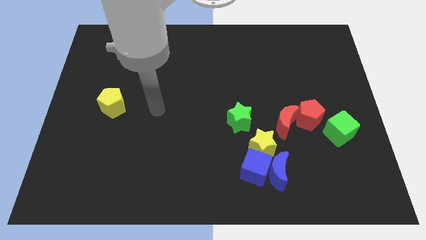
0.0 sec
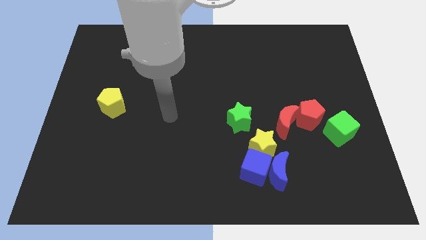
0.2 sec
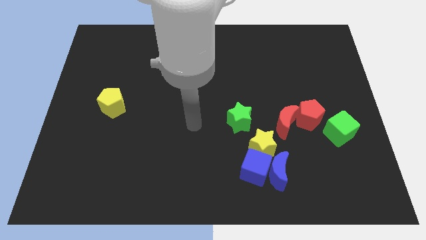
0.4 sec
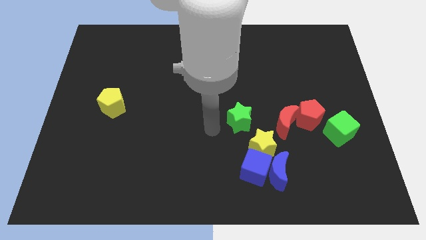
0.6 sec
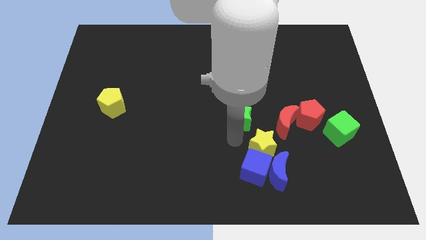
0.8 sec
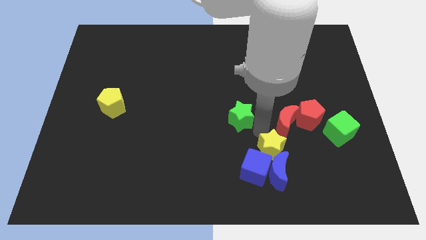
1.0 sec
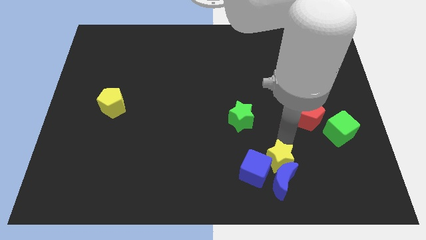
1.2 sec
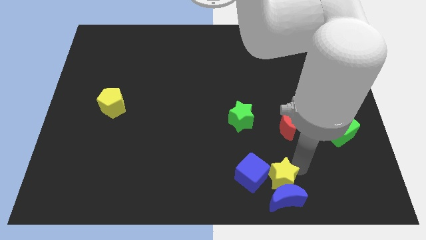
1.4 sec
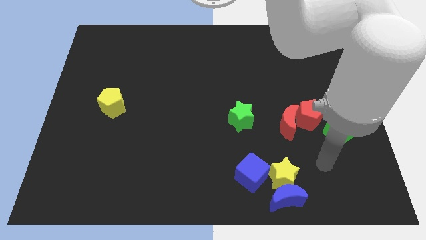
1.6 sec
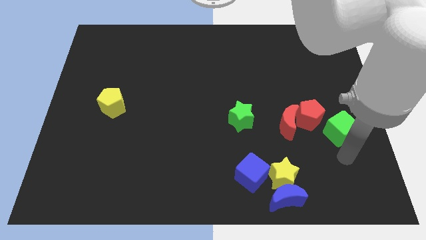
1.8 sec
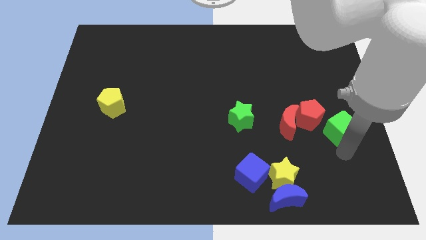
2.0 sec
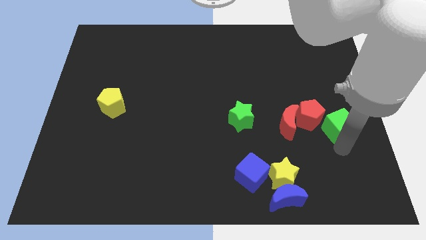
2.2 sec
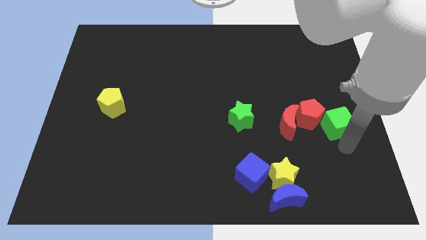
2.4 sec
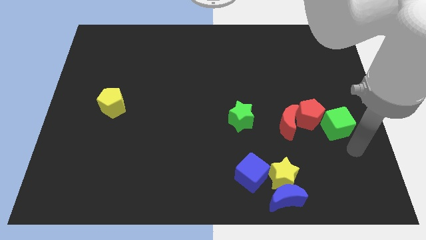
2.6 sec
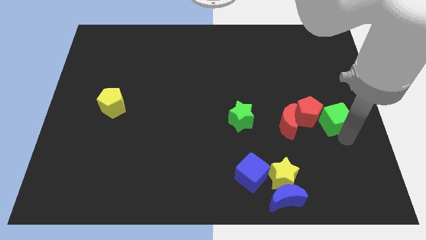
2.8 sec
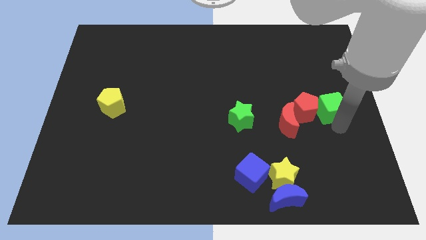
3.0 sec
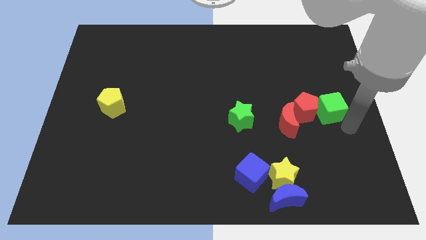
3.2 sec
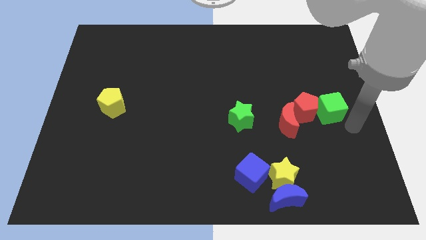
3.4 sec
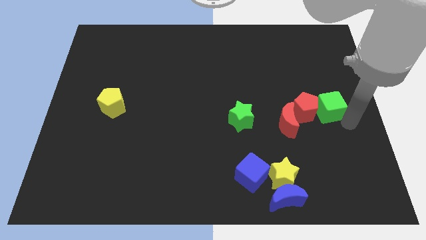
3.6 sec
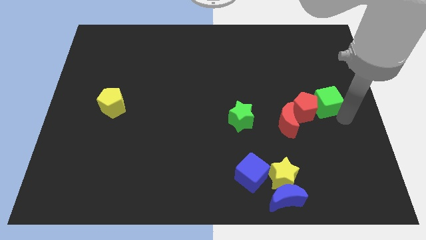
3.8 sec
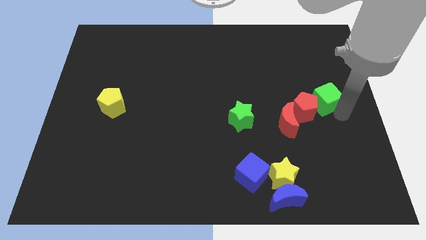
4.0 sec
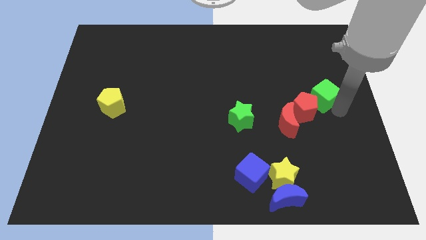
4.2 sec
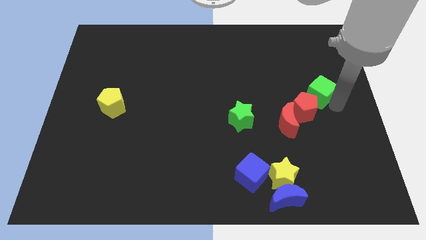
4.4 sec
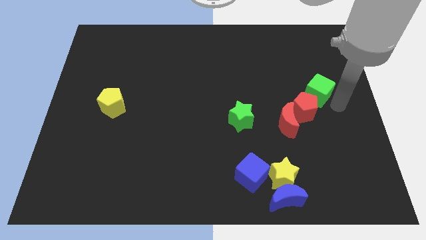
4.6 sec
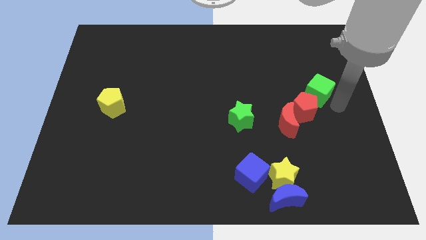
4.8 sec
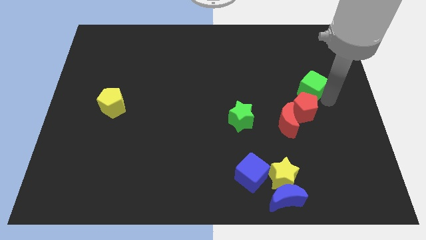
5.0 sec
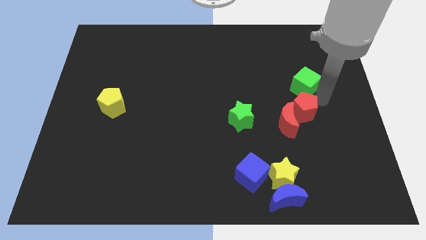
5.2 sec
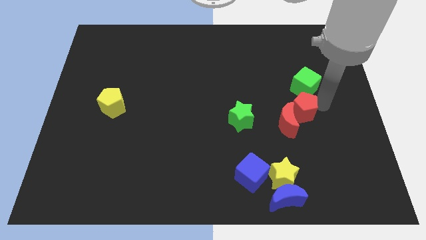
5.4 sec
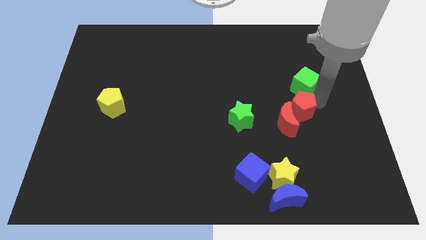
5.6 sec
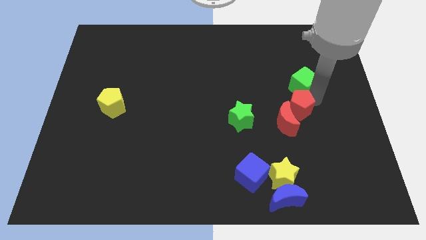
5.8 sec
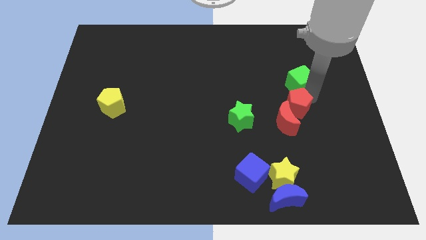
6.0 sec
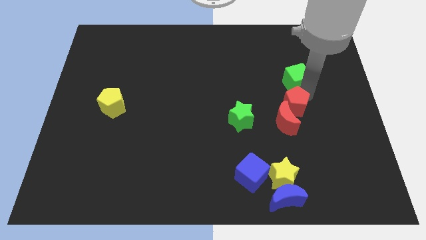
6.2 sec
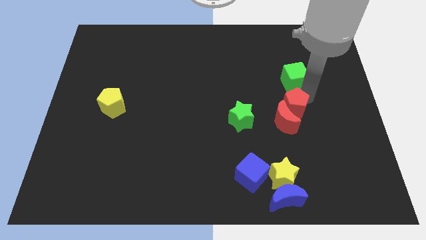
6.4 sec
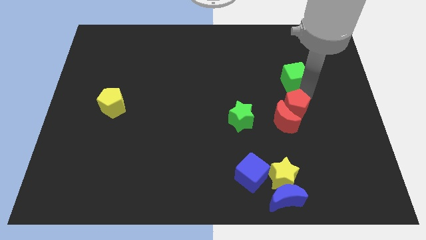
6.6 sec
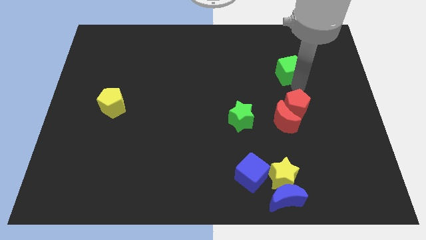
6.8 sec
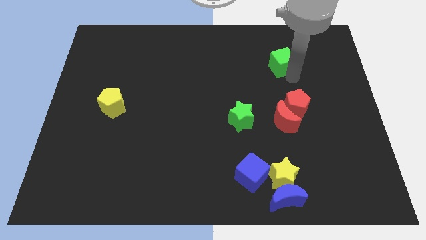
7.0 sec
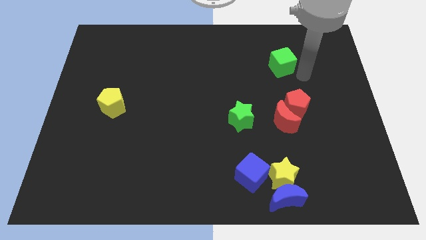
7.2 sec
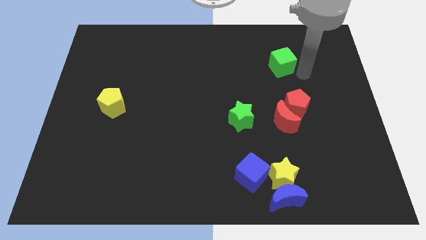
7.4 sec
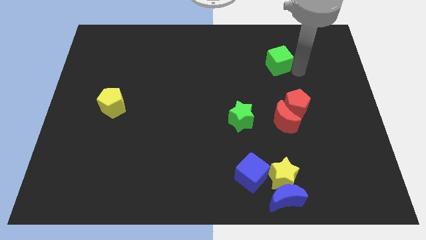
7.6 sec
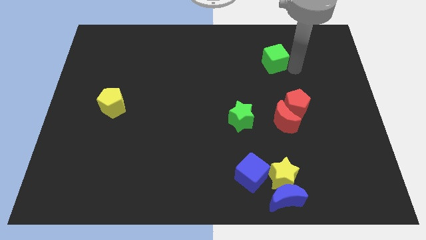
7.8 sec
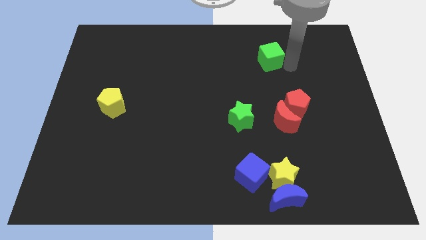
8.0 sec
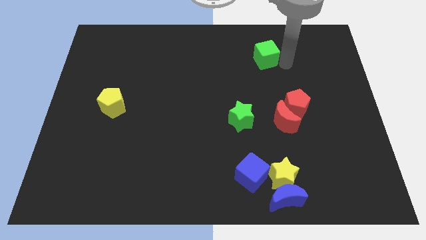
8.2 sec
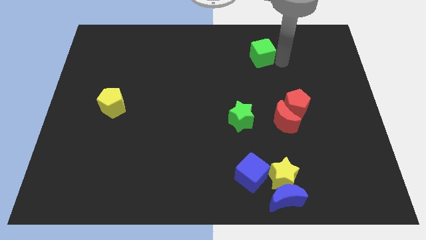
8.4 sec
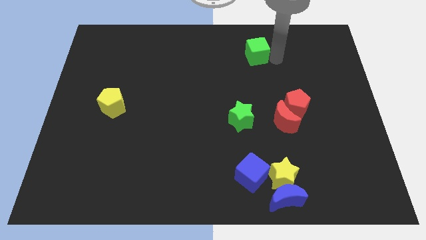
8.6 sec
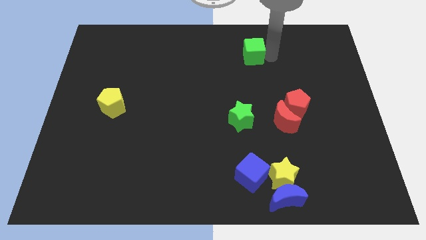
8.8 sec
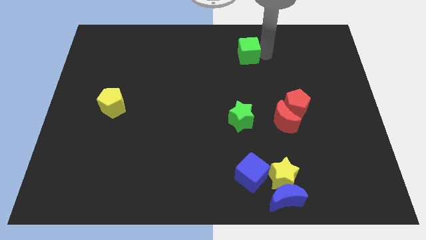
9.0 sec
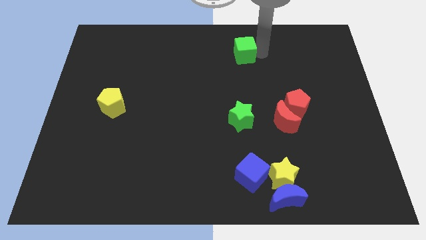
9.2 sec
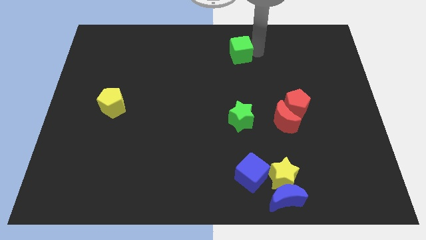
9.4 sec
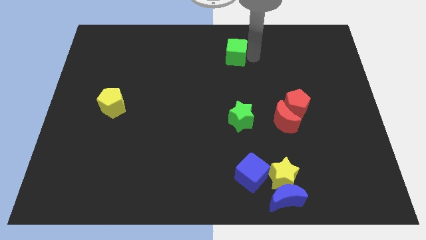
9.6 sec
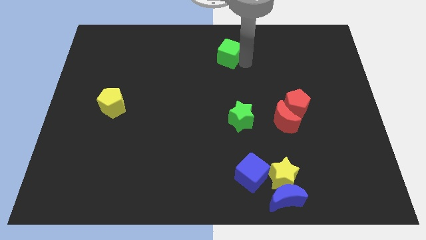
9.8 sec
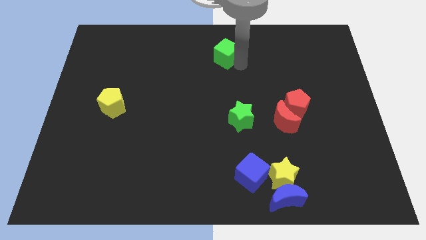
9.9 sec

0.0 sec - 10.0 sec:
move the green cube to the top

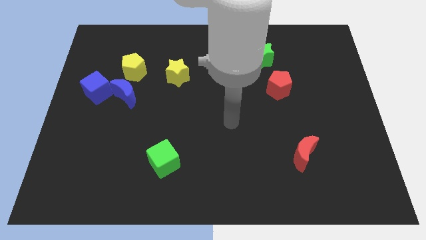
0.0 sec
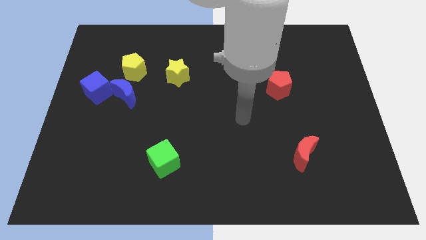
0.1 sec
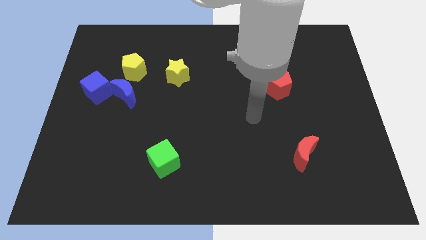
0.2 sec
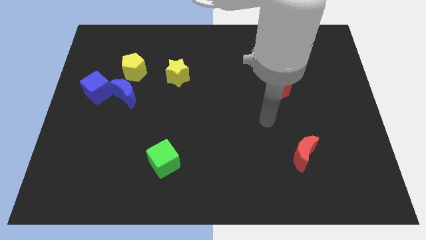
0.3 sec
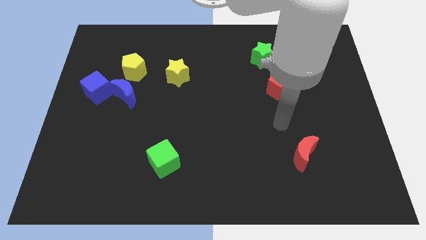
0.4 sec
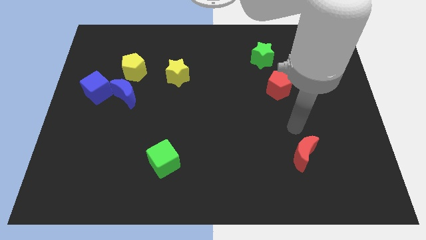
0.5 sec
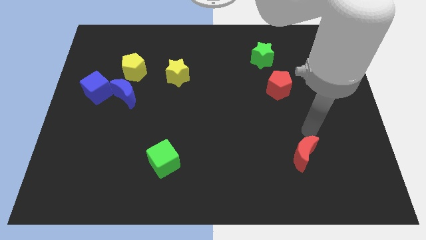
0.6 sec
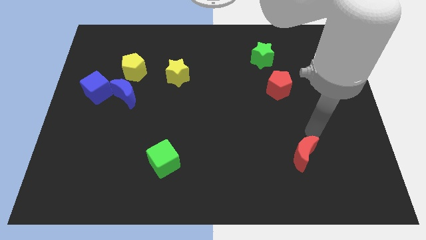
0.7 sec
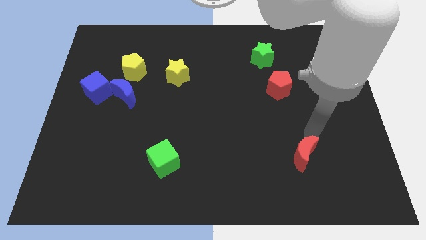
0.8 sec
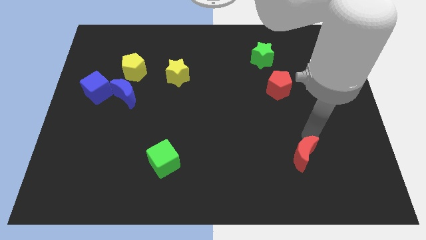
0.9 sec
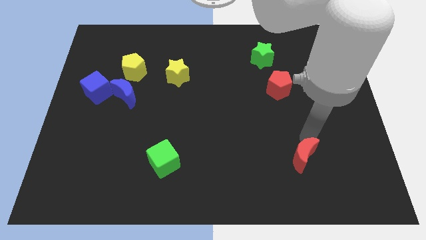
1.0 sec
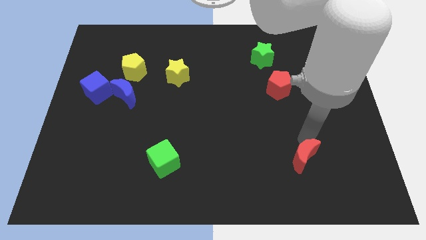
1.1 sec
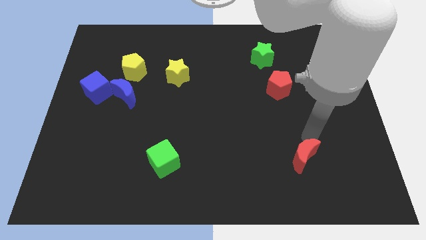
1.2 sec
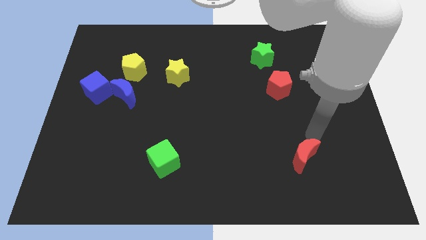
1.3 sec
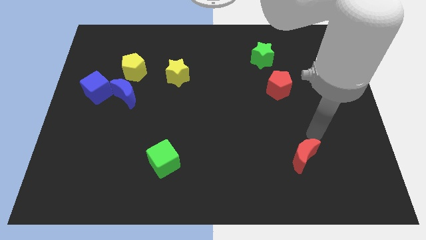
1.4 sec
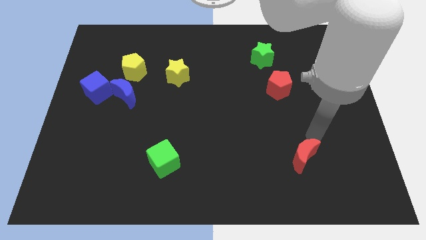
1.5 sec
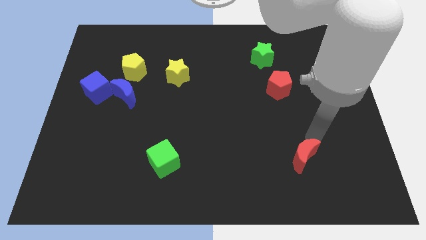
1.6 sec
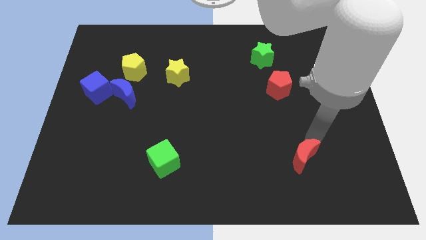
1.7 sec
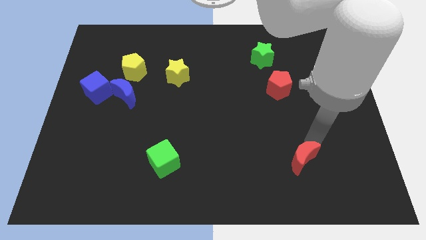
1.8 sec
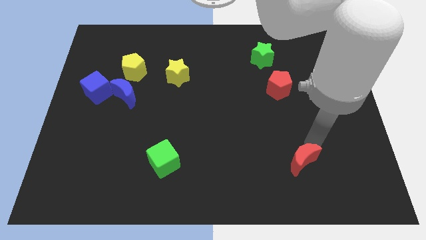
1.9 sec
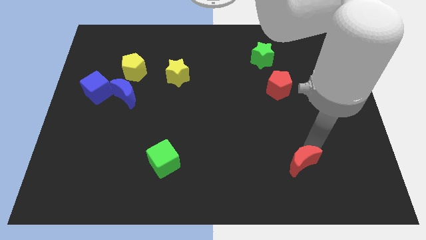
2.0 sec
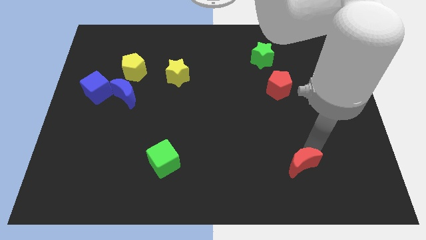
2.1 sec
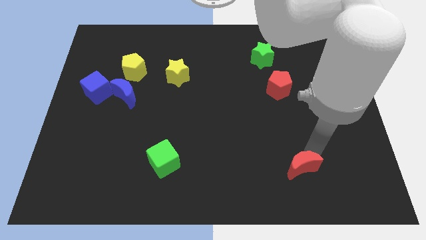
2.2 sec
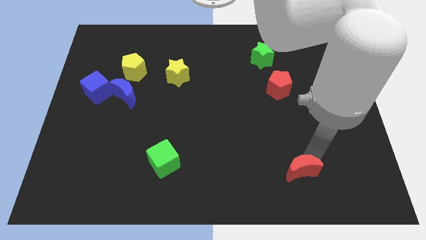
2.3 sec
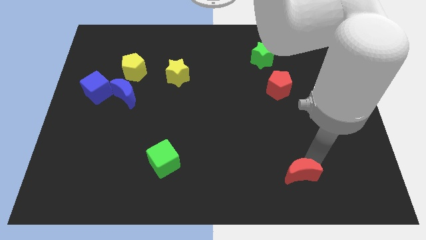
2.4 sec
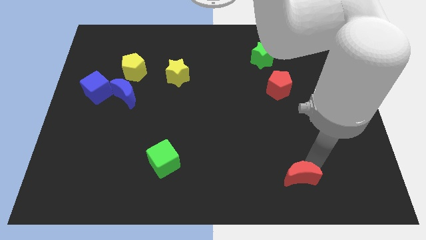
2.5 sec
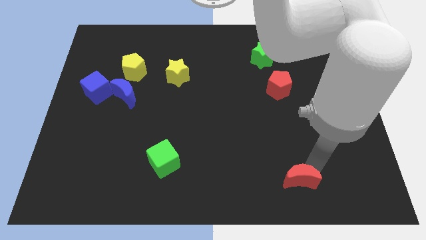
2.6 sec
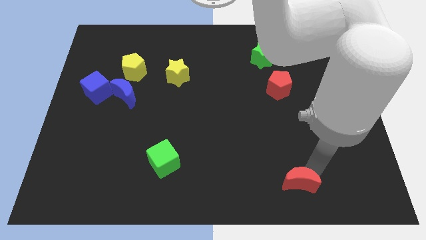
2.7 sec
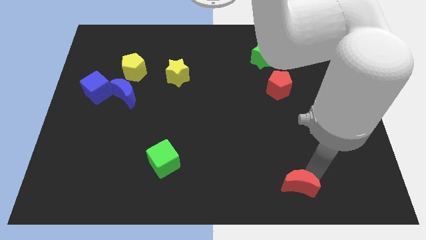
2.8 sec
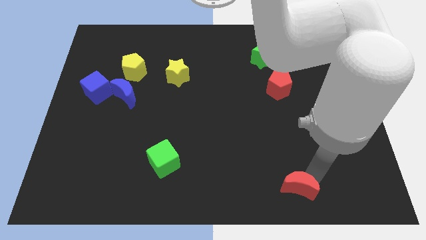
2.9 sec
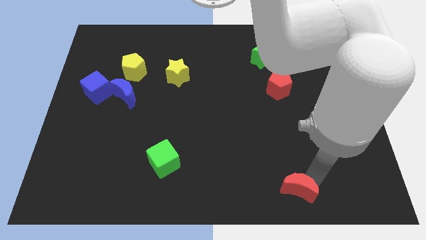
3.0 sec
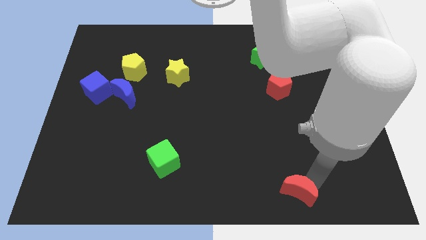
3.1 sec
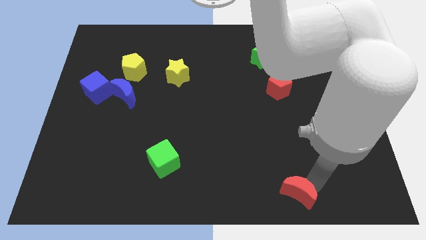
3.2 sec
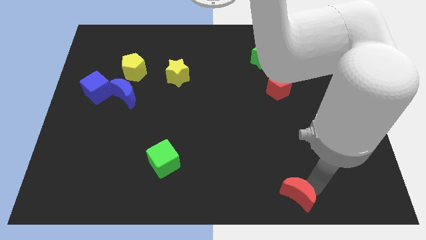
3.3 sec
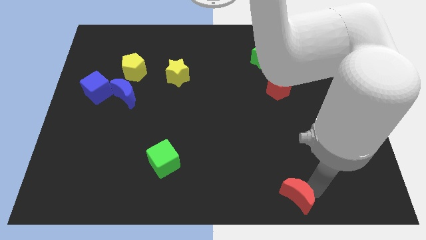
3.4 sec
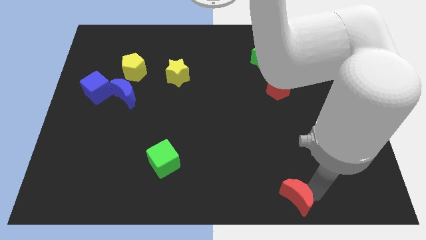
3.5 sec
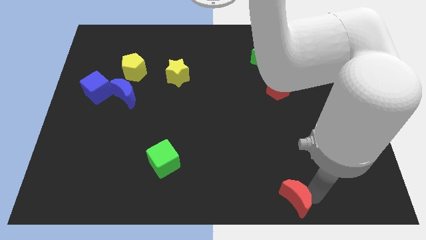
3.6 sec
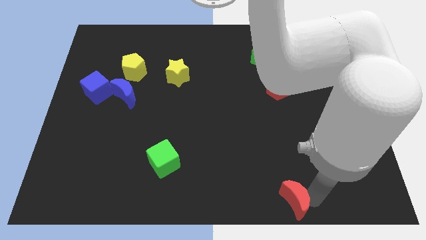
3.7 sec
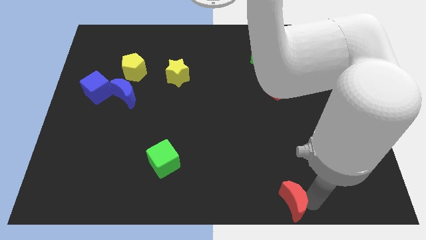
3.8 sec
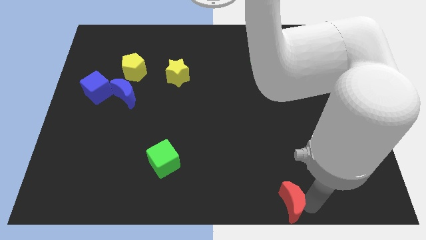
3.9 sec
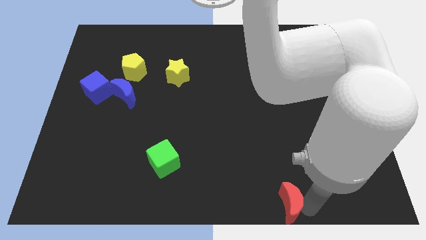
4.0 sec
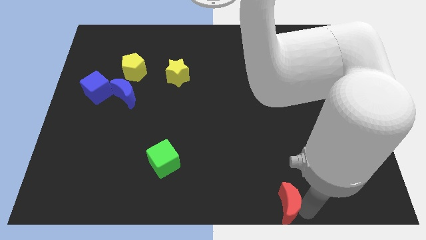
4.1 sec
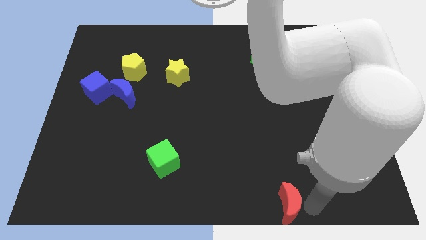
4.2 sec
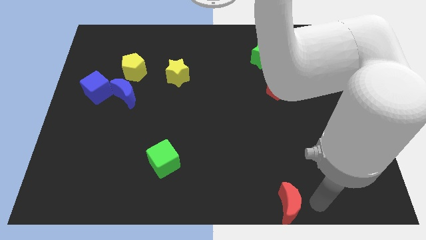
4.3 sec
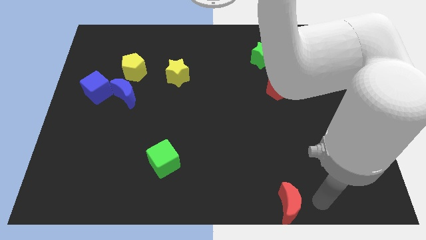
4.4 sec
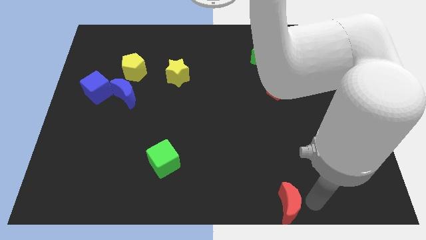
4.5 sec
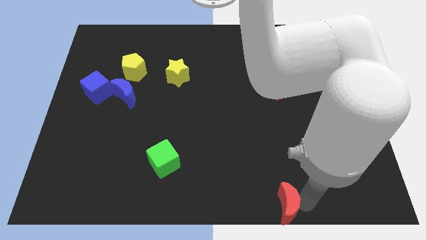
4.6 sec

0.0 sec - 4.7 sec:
push the red moon to the bottom
